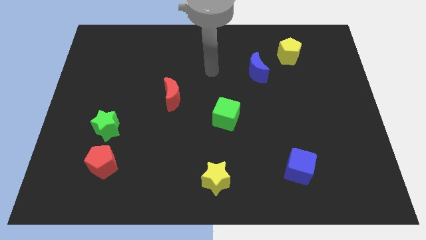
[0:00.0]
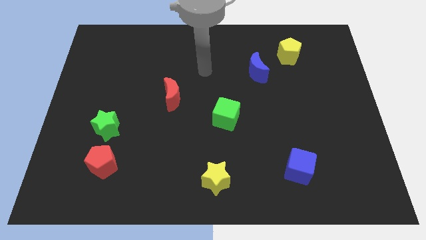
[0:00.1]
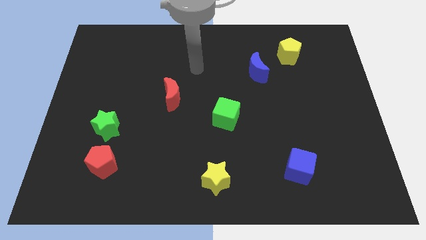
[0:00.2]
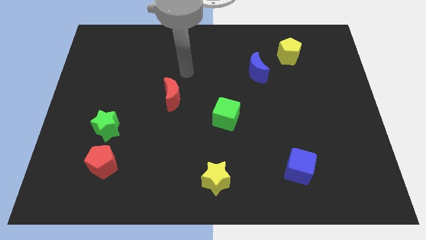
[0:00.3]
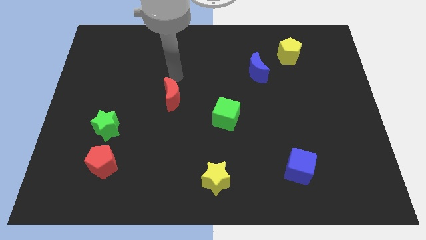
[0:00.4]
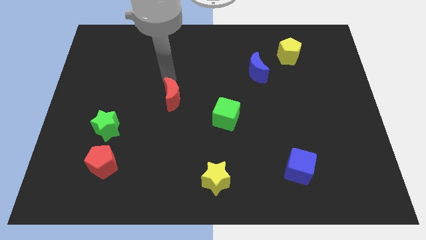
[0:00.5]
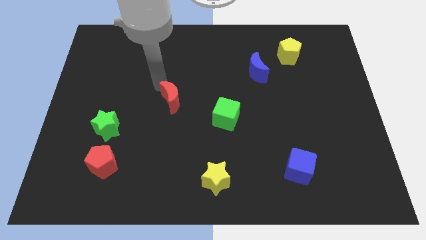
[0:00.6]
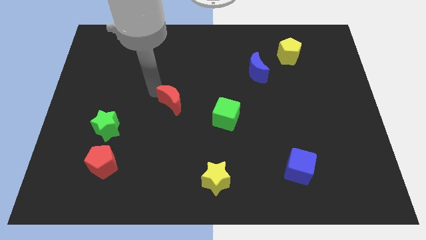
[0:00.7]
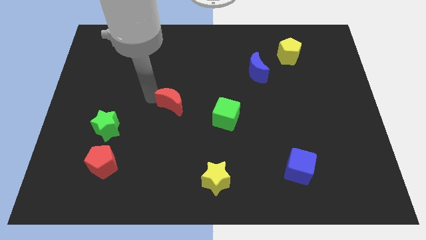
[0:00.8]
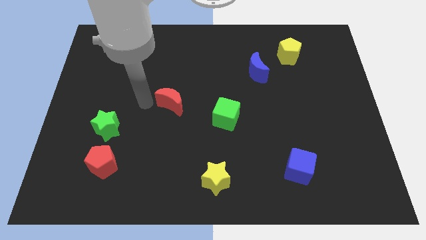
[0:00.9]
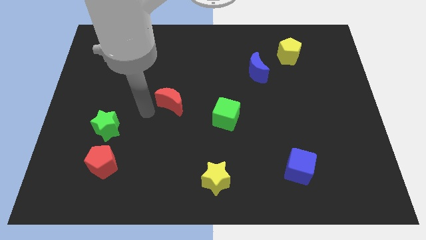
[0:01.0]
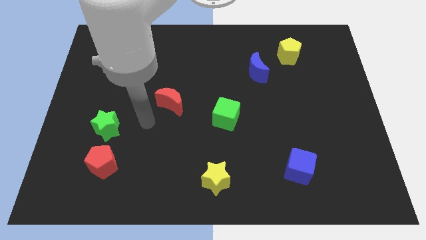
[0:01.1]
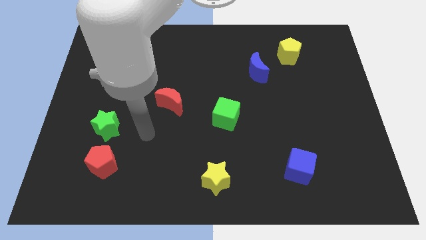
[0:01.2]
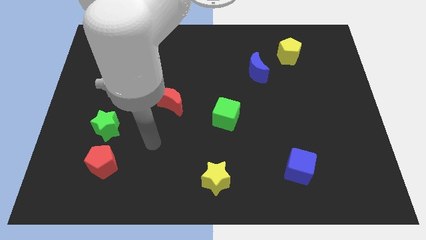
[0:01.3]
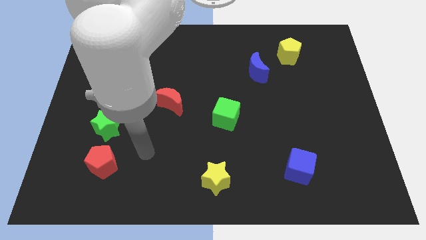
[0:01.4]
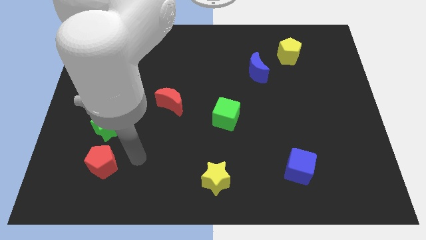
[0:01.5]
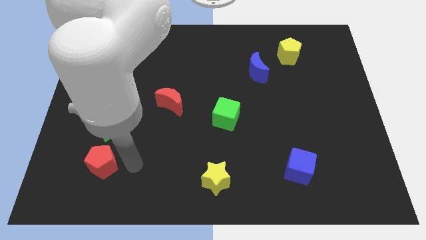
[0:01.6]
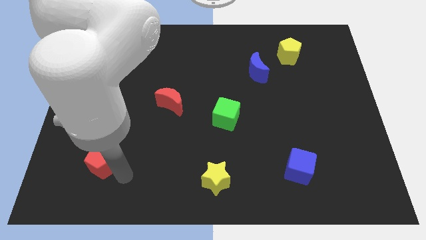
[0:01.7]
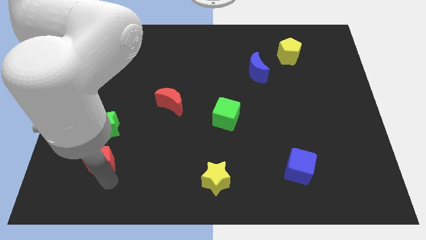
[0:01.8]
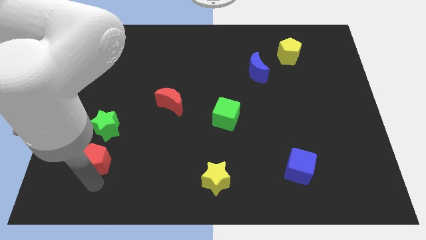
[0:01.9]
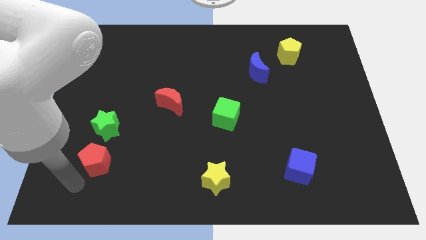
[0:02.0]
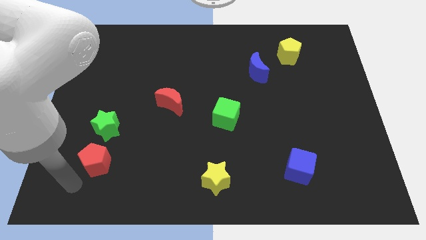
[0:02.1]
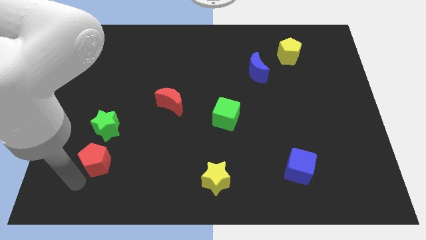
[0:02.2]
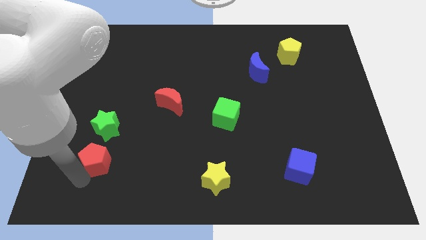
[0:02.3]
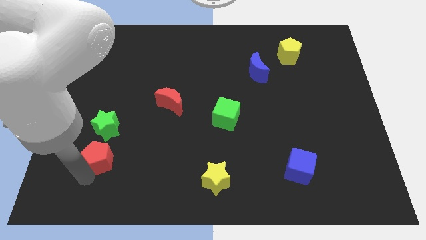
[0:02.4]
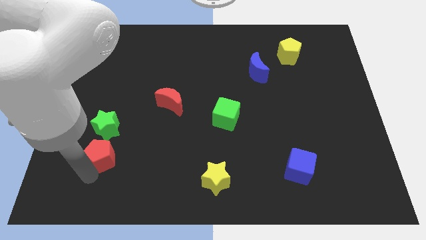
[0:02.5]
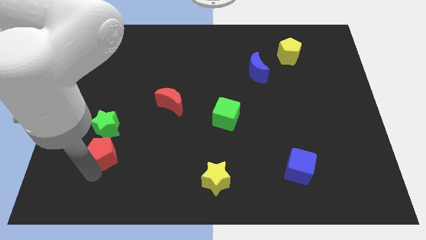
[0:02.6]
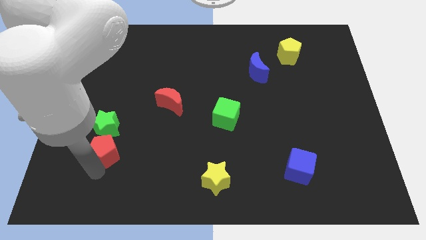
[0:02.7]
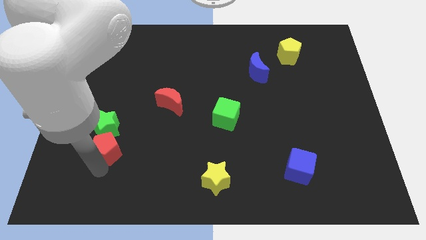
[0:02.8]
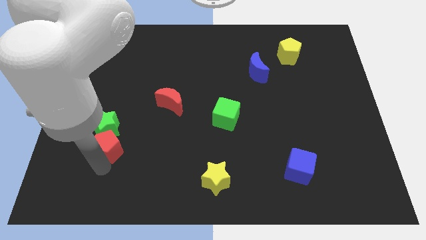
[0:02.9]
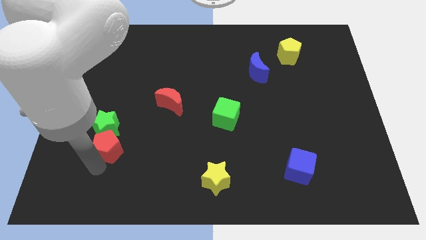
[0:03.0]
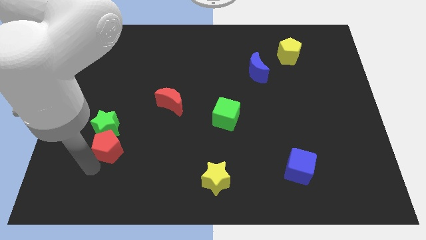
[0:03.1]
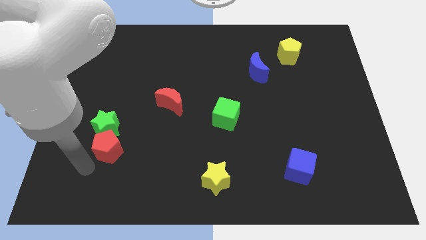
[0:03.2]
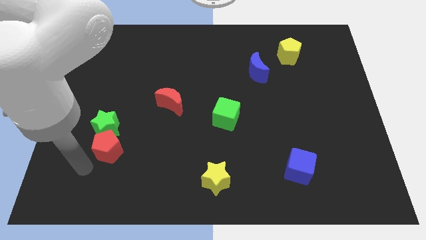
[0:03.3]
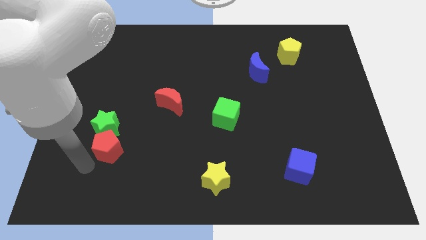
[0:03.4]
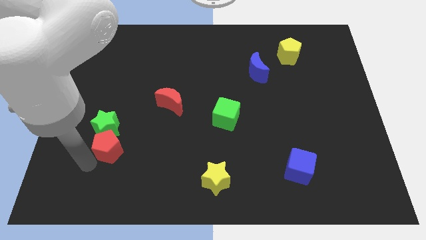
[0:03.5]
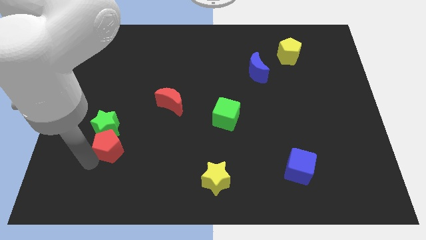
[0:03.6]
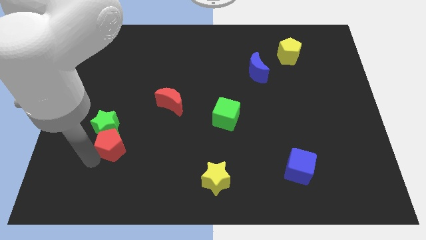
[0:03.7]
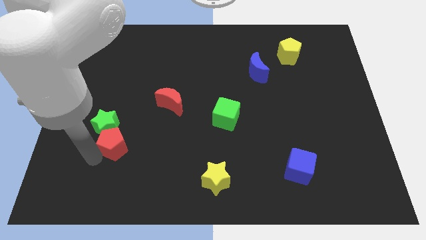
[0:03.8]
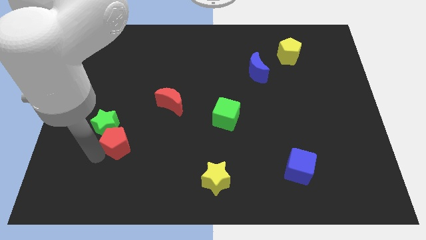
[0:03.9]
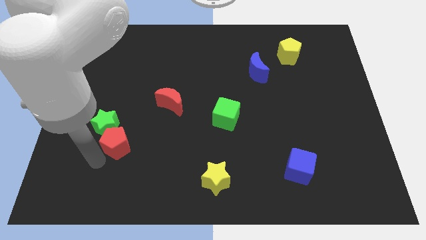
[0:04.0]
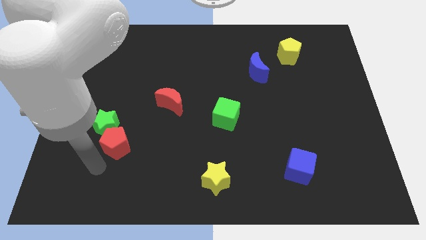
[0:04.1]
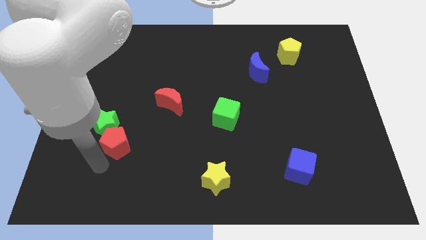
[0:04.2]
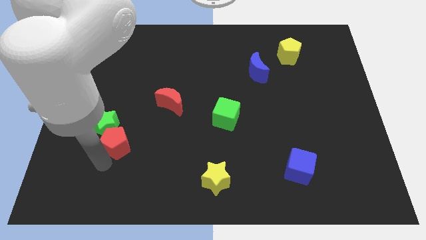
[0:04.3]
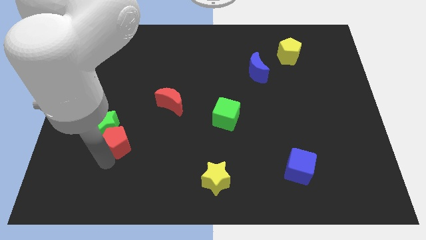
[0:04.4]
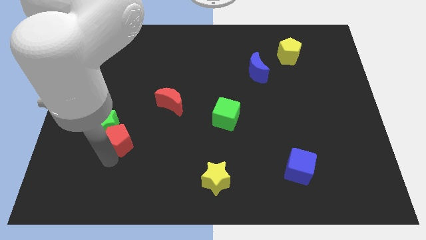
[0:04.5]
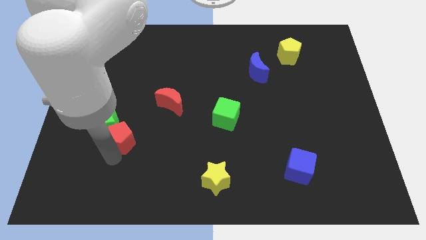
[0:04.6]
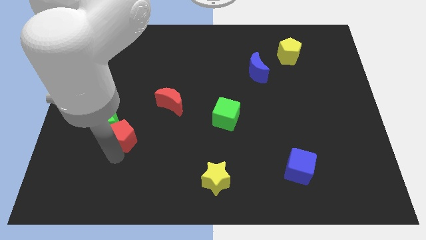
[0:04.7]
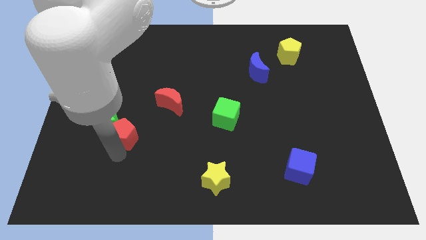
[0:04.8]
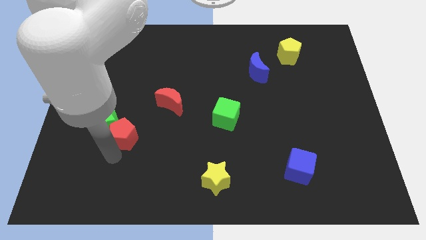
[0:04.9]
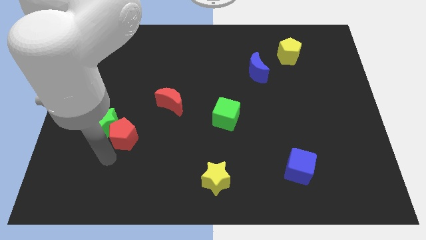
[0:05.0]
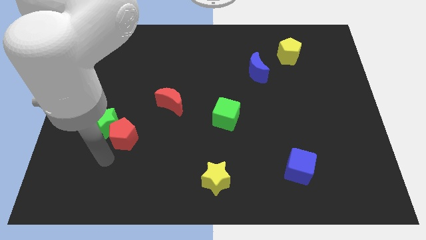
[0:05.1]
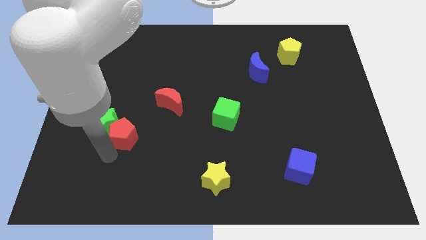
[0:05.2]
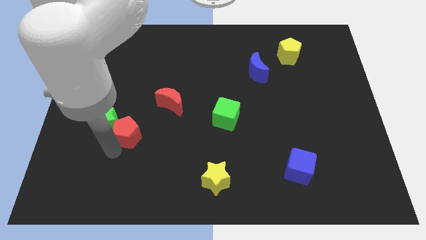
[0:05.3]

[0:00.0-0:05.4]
slightly push the red pentagon upwards

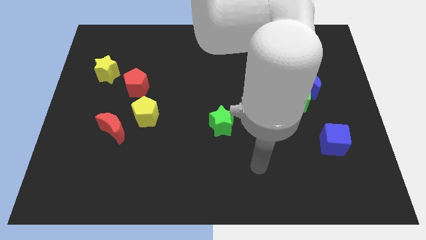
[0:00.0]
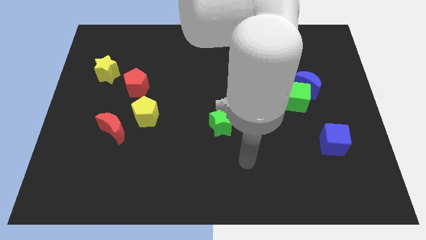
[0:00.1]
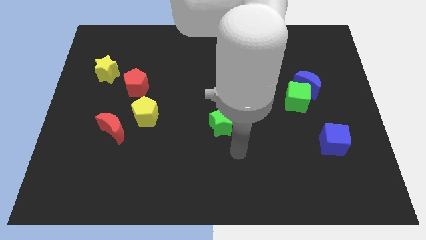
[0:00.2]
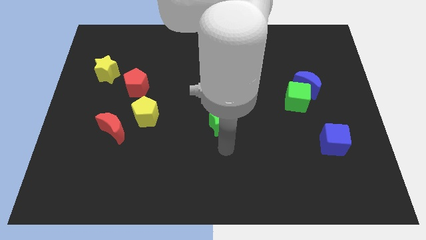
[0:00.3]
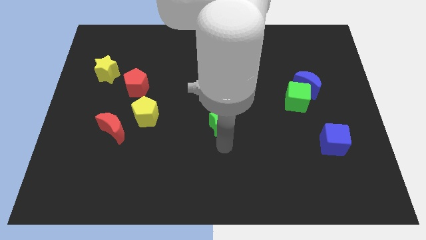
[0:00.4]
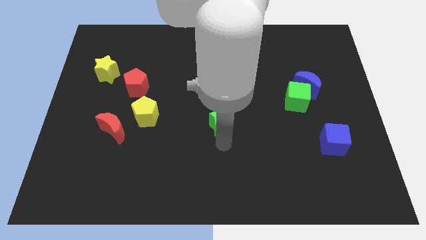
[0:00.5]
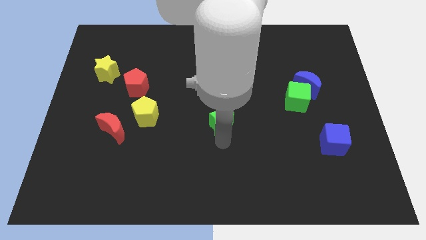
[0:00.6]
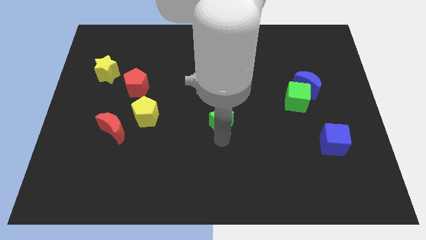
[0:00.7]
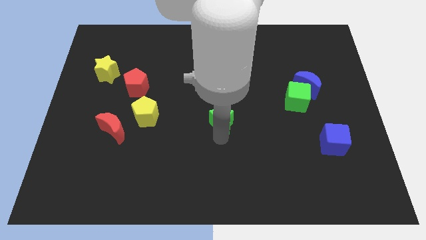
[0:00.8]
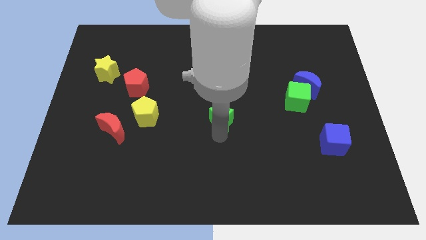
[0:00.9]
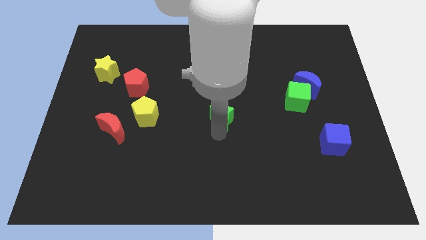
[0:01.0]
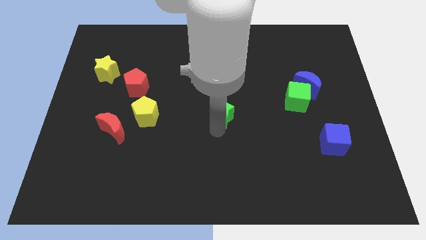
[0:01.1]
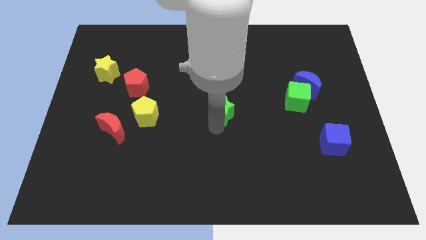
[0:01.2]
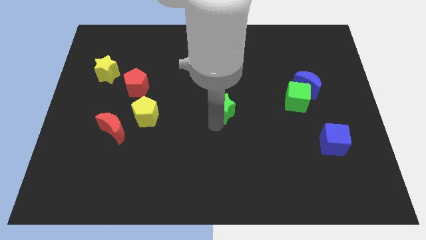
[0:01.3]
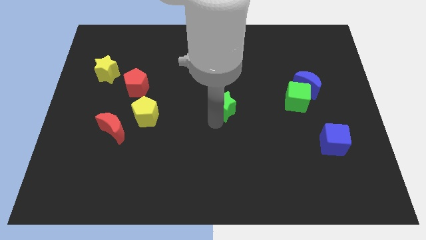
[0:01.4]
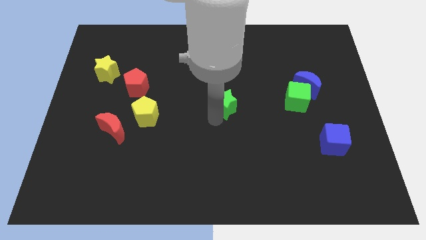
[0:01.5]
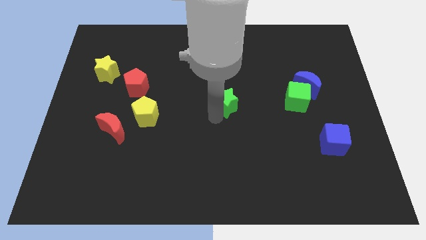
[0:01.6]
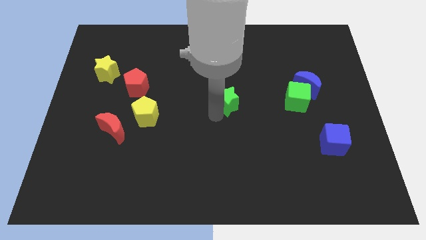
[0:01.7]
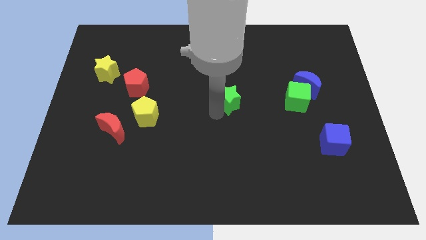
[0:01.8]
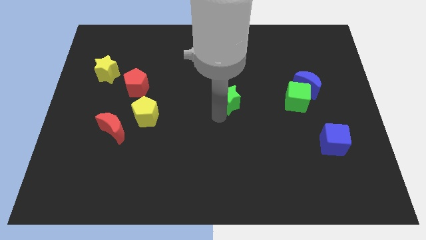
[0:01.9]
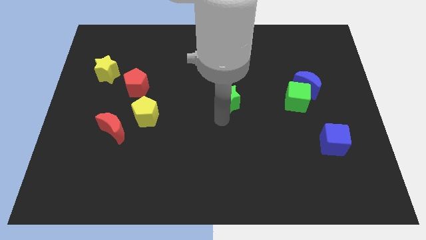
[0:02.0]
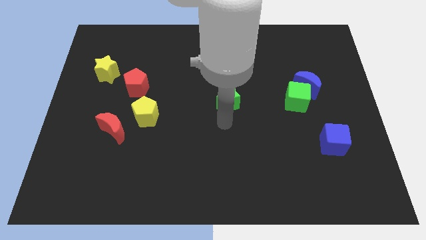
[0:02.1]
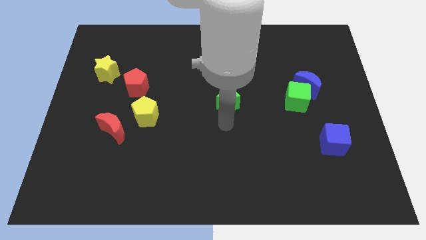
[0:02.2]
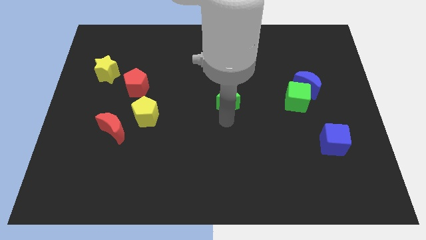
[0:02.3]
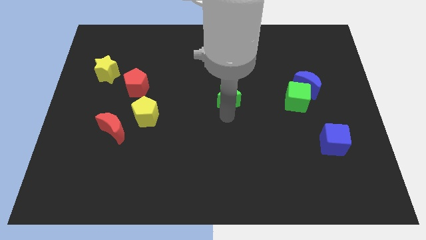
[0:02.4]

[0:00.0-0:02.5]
push the green star up a bit

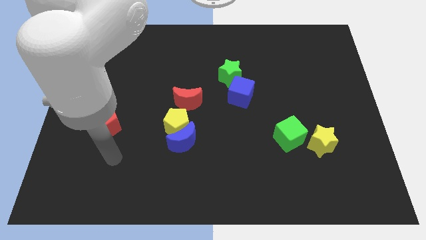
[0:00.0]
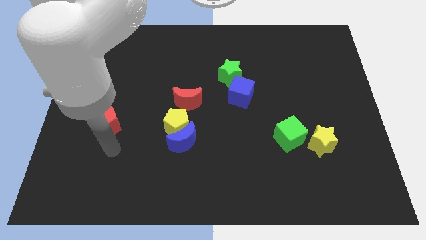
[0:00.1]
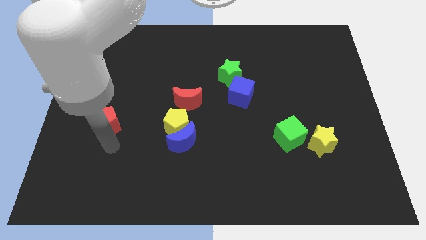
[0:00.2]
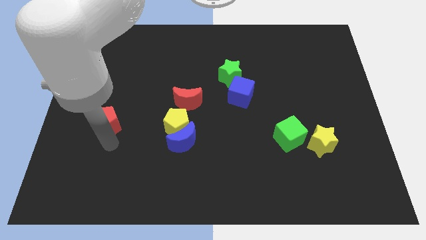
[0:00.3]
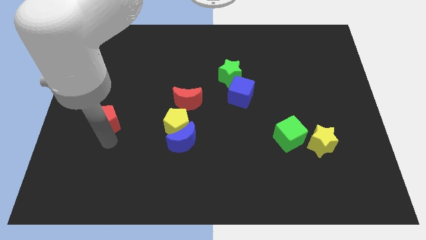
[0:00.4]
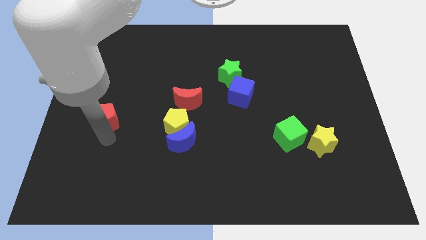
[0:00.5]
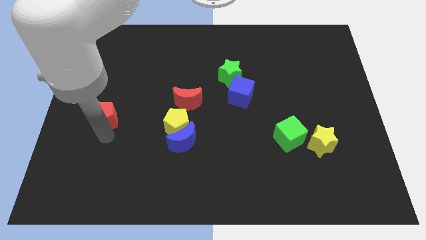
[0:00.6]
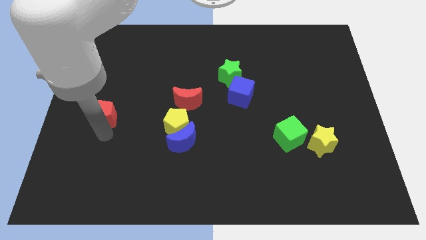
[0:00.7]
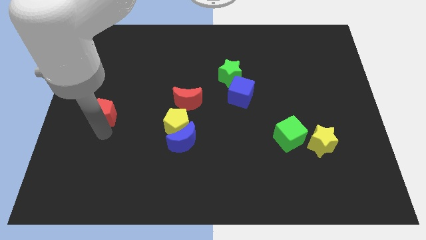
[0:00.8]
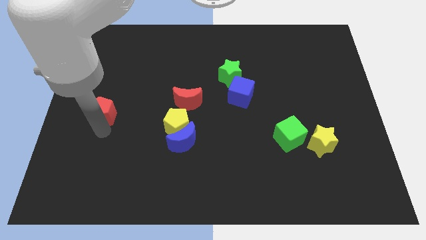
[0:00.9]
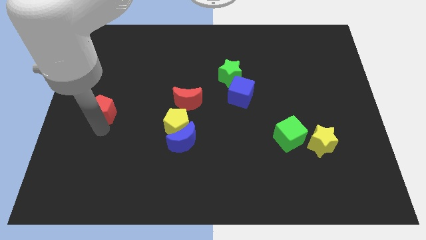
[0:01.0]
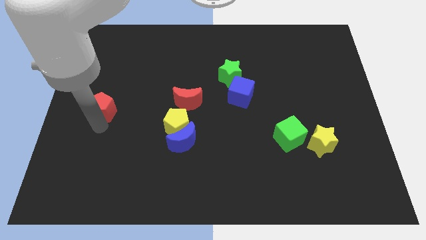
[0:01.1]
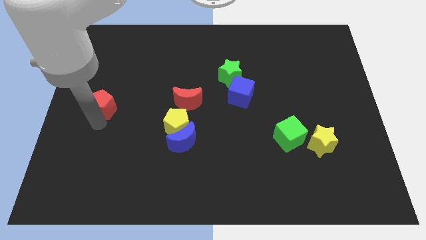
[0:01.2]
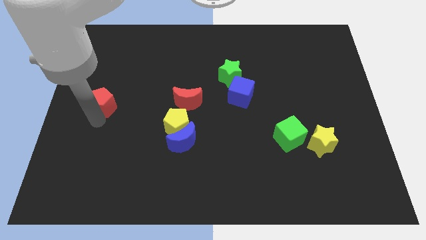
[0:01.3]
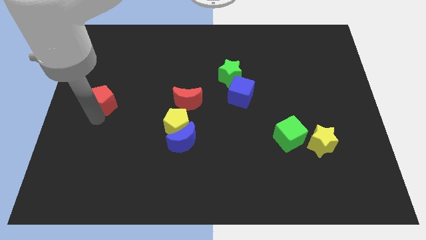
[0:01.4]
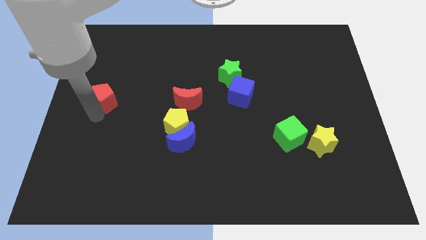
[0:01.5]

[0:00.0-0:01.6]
move the red pentagon somewhat up
